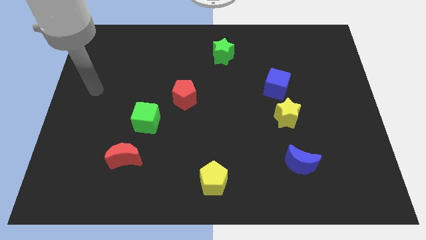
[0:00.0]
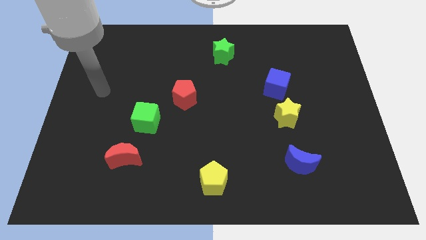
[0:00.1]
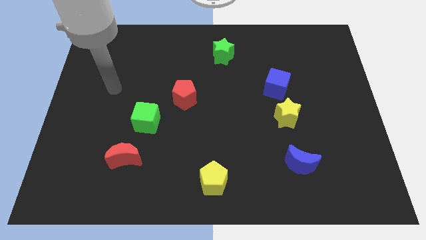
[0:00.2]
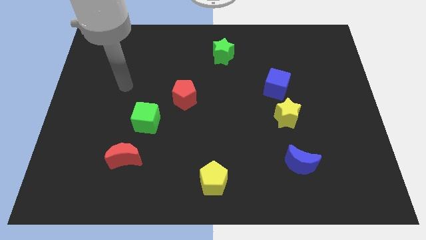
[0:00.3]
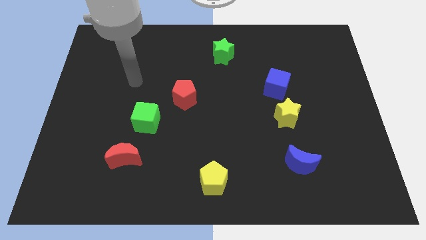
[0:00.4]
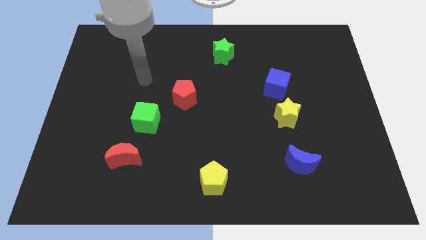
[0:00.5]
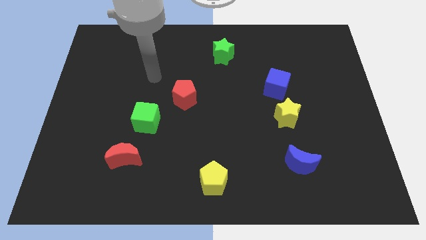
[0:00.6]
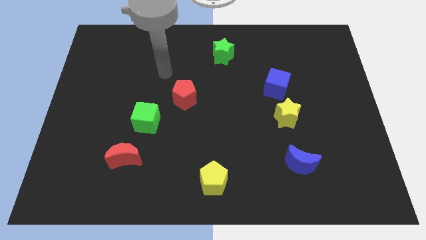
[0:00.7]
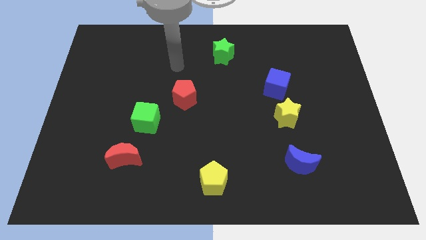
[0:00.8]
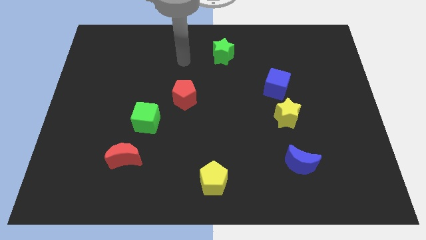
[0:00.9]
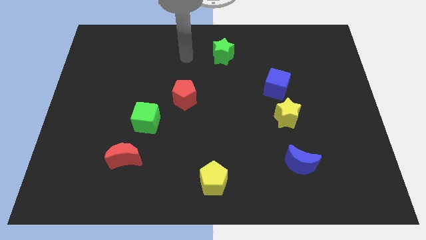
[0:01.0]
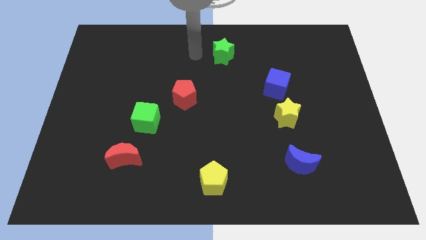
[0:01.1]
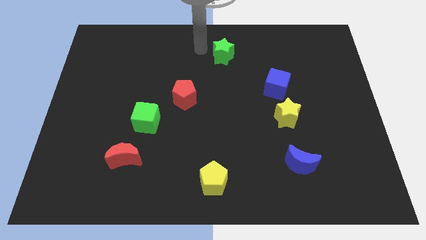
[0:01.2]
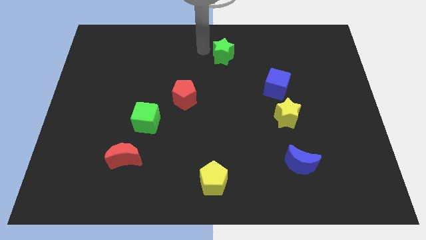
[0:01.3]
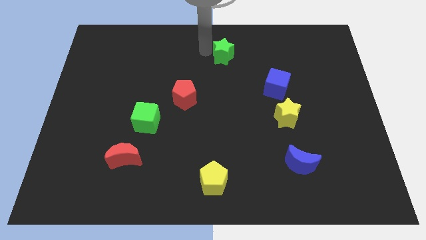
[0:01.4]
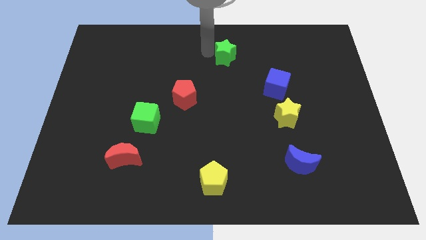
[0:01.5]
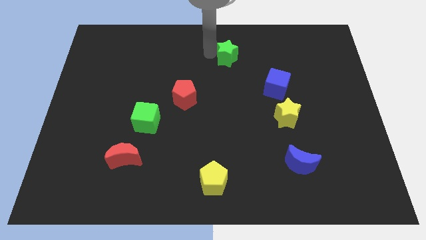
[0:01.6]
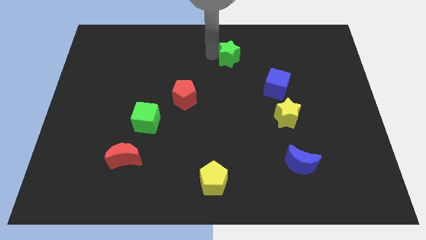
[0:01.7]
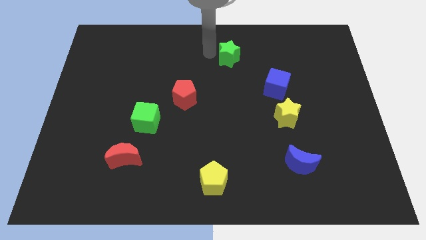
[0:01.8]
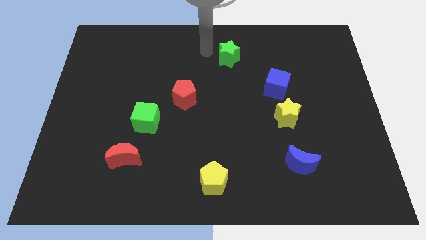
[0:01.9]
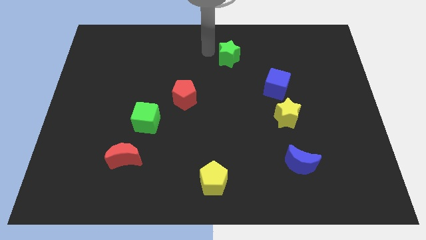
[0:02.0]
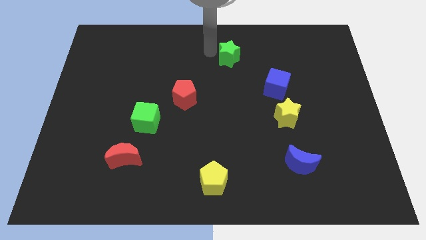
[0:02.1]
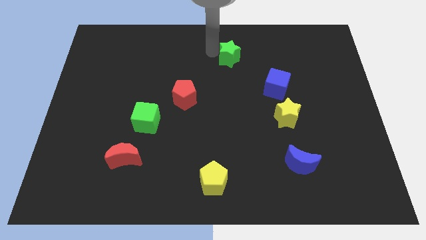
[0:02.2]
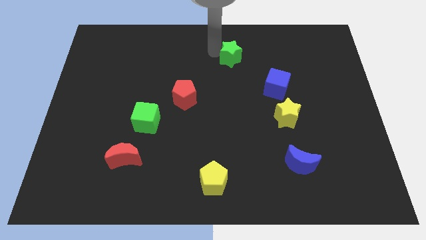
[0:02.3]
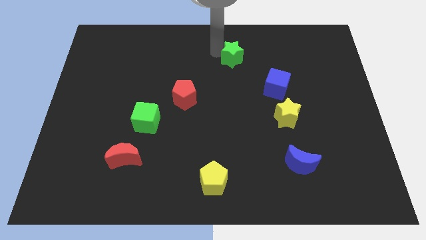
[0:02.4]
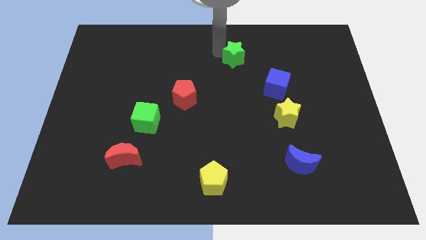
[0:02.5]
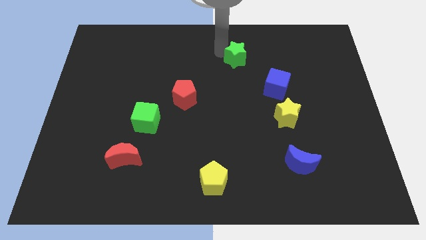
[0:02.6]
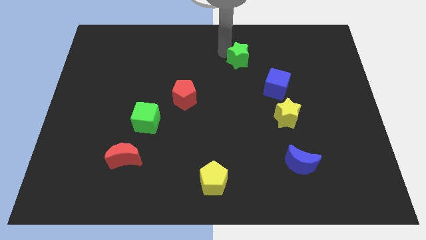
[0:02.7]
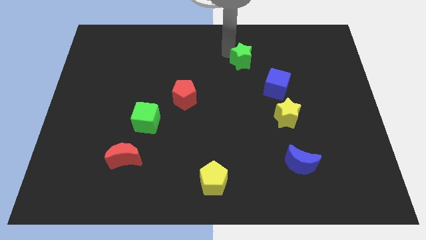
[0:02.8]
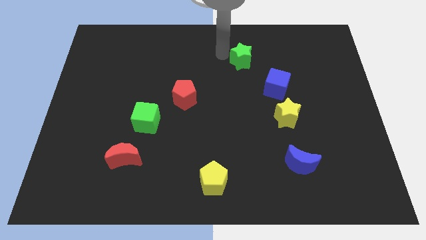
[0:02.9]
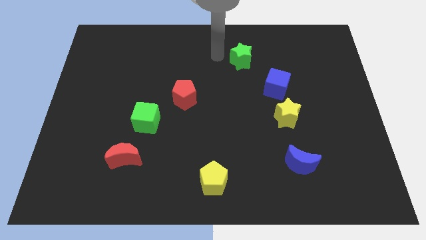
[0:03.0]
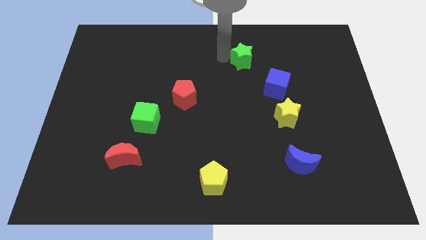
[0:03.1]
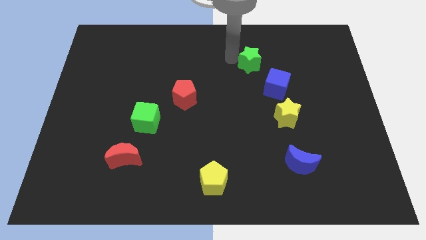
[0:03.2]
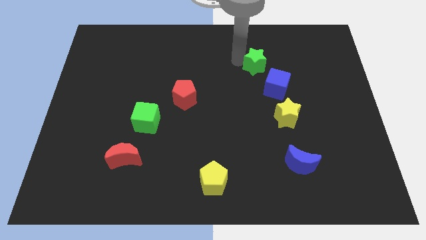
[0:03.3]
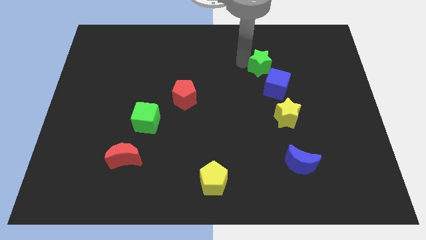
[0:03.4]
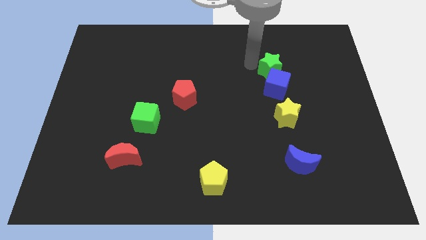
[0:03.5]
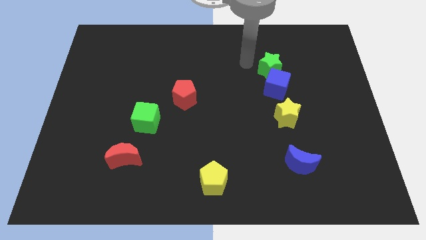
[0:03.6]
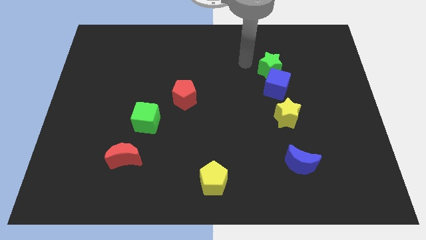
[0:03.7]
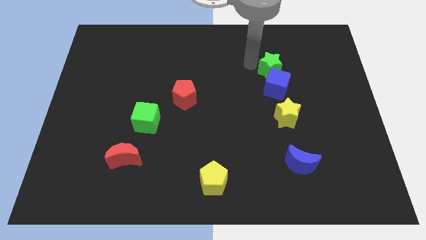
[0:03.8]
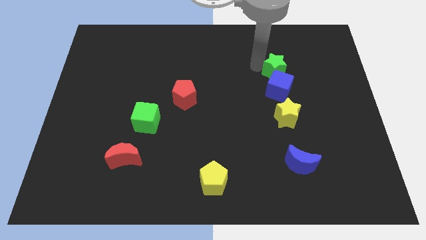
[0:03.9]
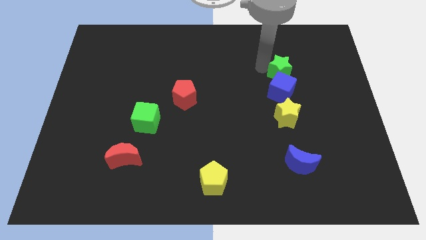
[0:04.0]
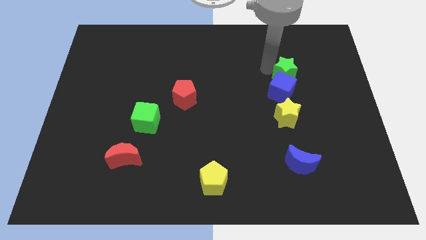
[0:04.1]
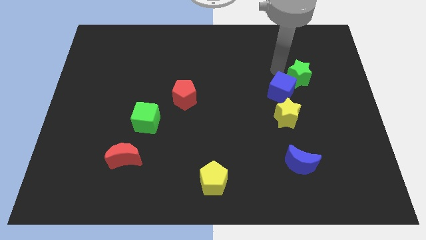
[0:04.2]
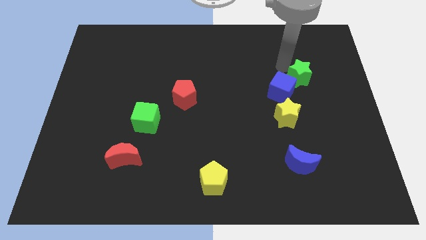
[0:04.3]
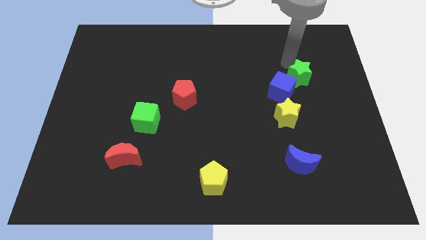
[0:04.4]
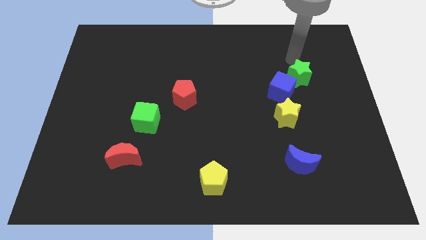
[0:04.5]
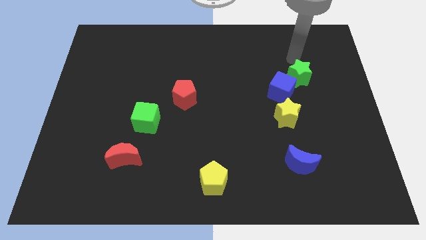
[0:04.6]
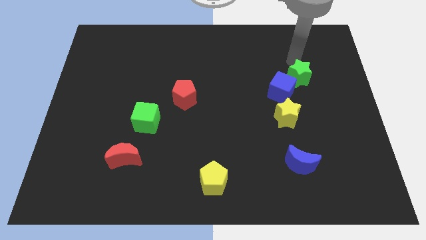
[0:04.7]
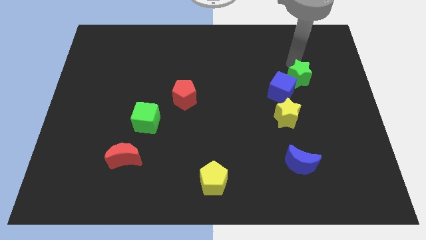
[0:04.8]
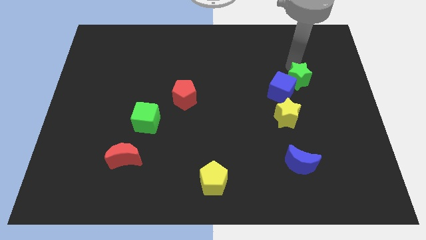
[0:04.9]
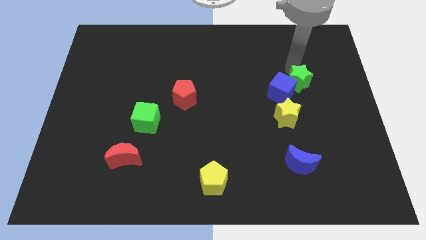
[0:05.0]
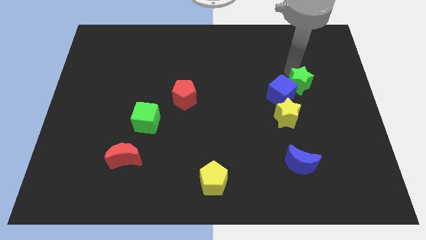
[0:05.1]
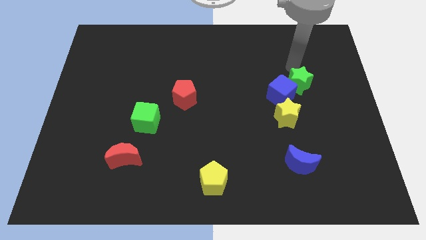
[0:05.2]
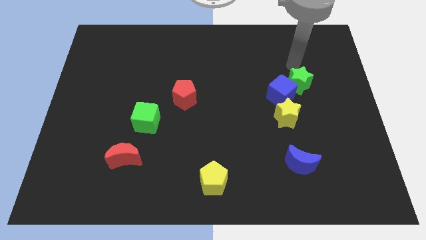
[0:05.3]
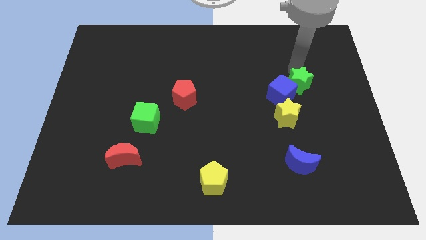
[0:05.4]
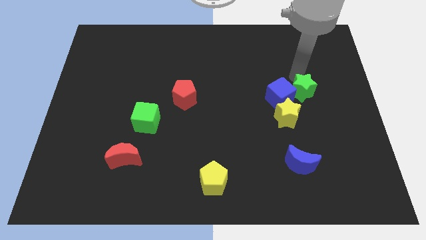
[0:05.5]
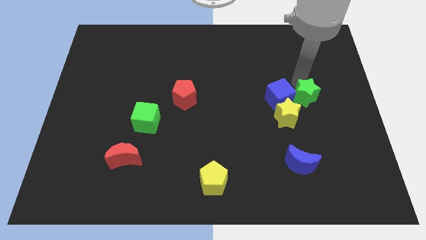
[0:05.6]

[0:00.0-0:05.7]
put the green star diagonally down and to the right of the blue cube

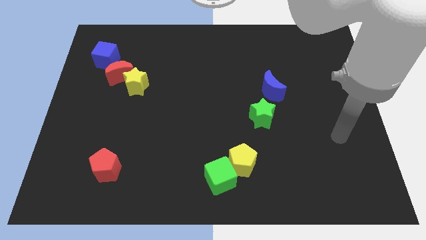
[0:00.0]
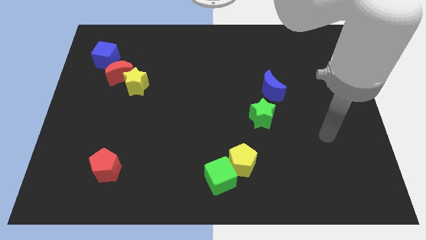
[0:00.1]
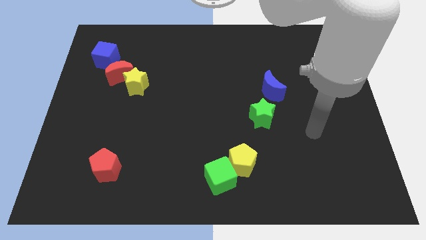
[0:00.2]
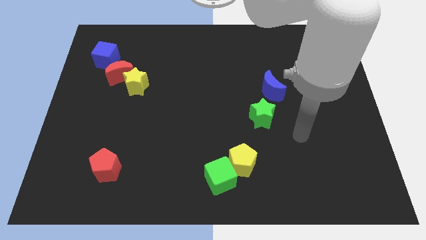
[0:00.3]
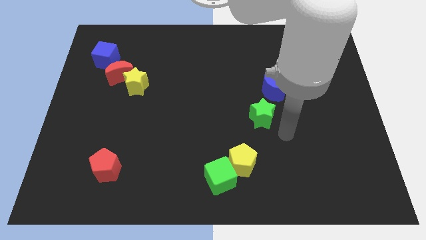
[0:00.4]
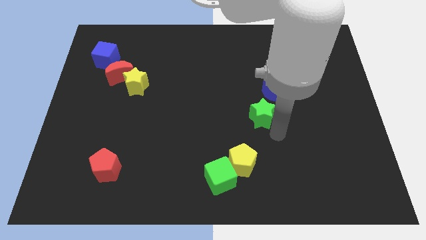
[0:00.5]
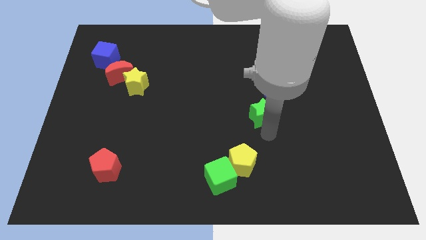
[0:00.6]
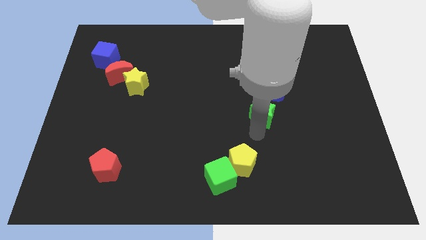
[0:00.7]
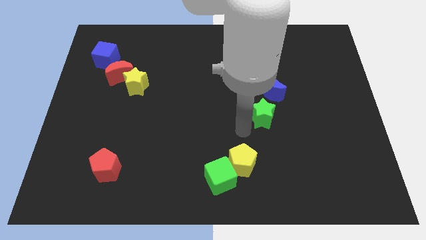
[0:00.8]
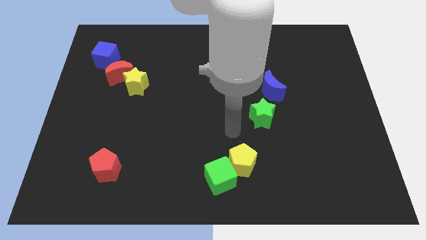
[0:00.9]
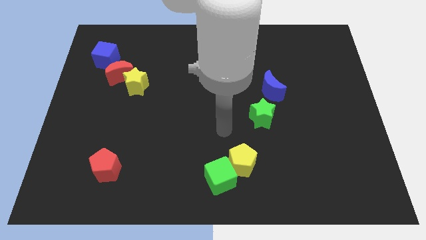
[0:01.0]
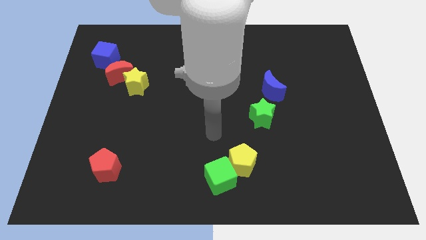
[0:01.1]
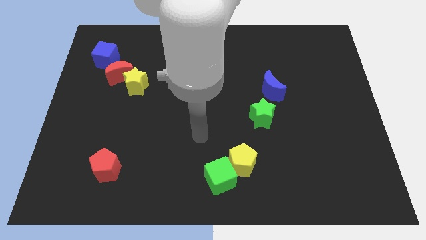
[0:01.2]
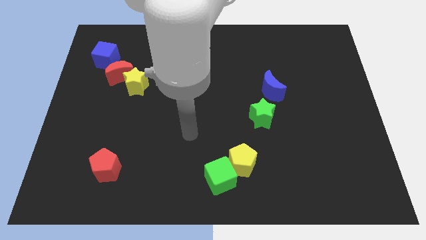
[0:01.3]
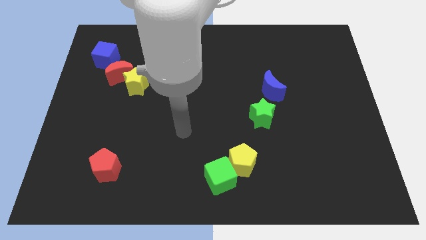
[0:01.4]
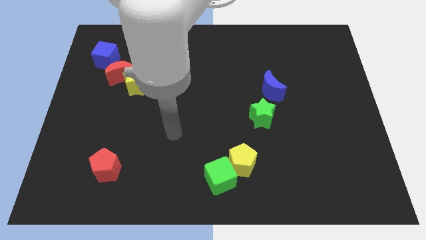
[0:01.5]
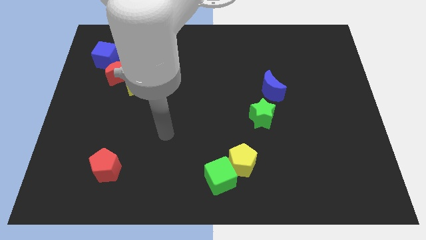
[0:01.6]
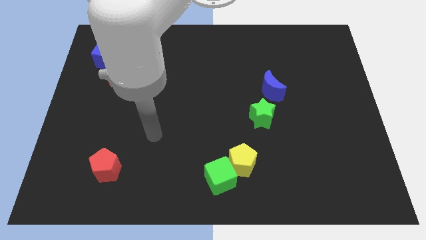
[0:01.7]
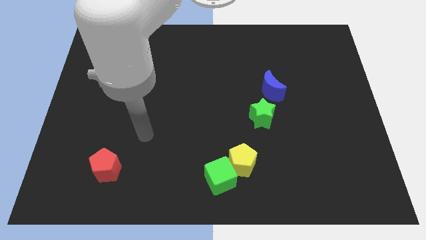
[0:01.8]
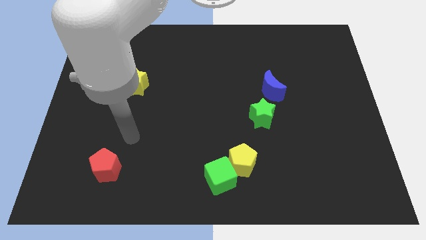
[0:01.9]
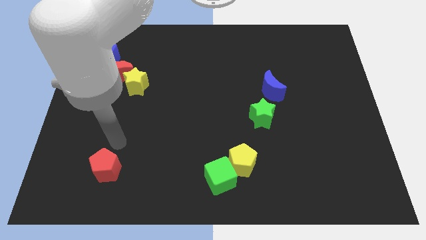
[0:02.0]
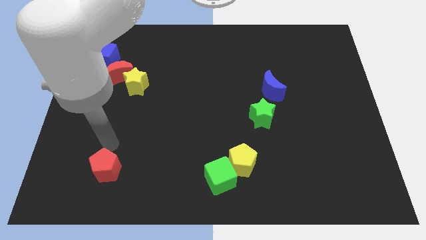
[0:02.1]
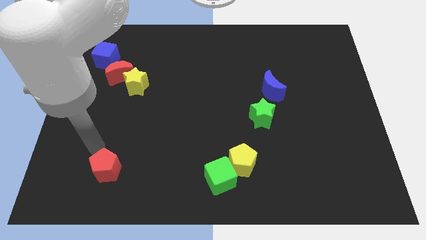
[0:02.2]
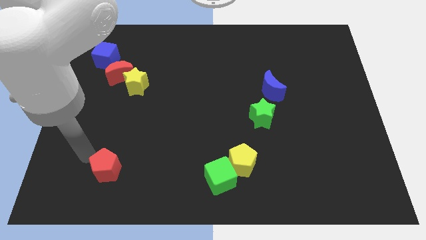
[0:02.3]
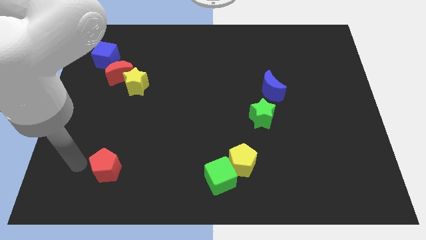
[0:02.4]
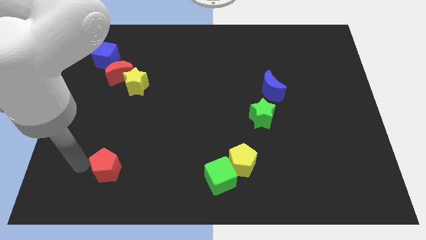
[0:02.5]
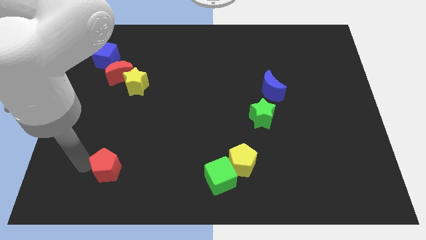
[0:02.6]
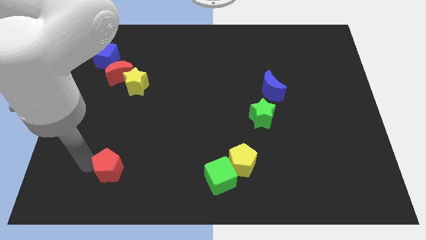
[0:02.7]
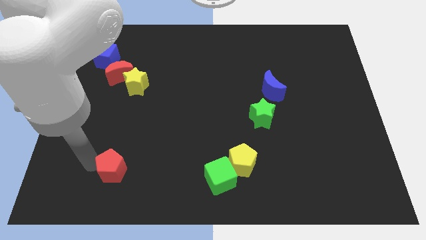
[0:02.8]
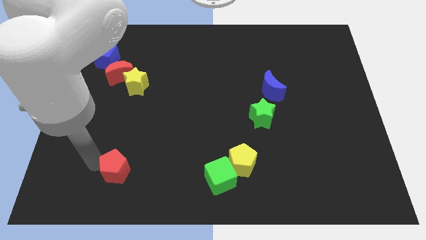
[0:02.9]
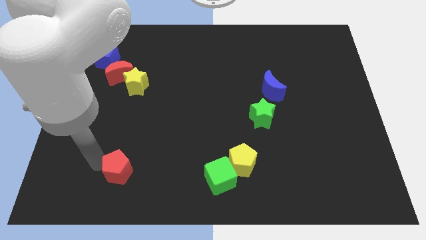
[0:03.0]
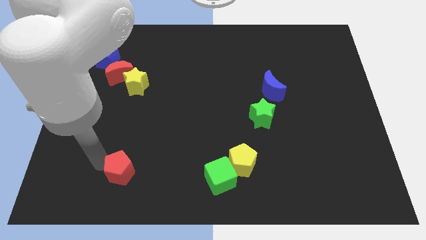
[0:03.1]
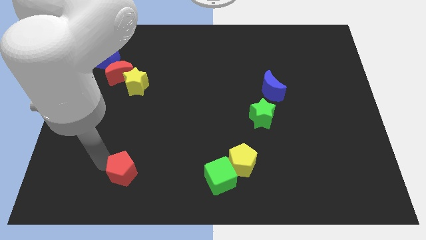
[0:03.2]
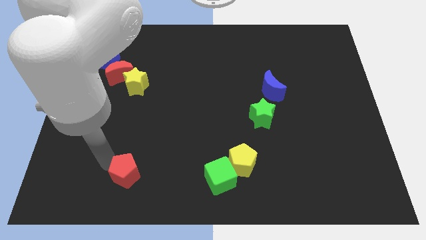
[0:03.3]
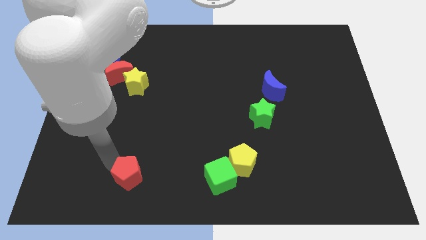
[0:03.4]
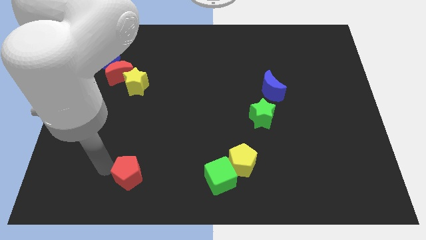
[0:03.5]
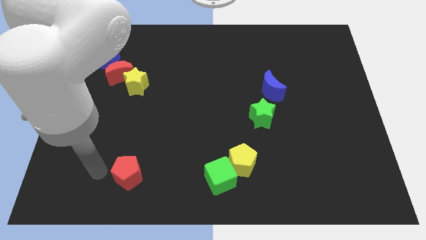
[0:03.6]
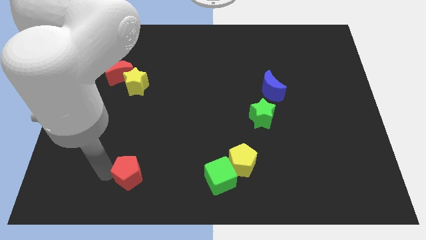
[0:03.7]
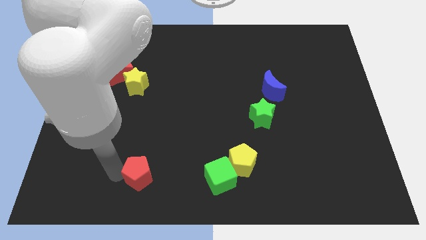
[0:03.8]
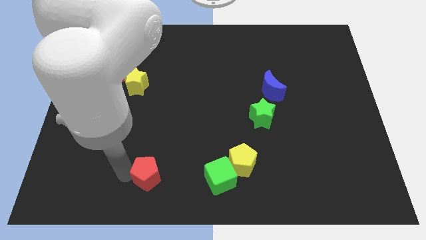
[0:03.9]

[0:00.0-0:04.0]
move the red pentagon to the left of the green cube
